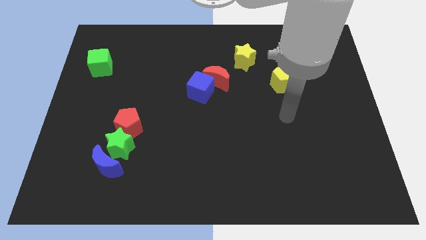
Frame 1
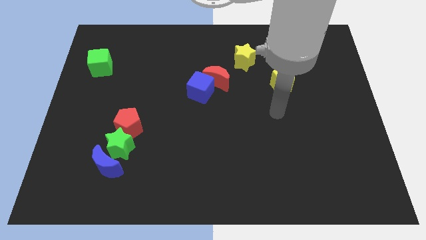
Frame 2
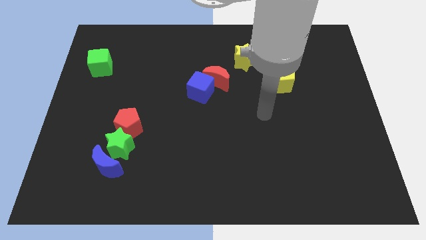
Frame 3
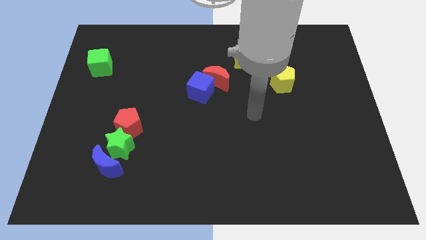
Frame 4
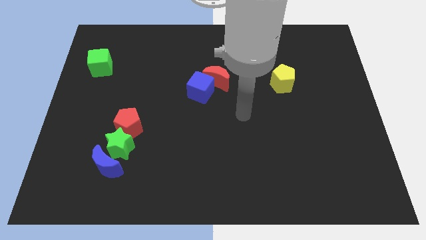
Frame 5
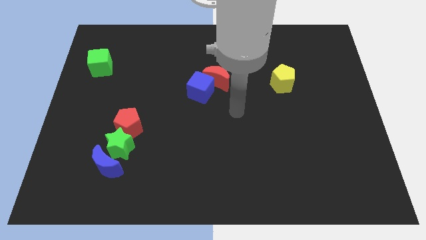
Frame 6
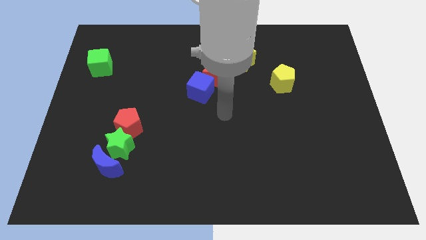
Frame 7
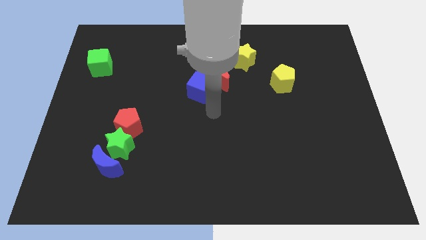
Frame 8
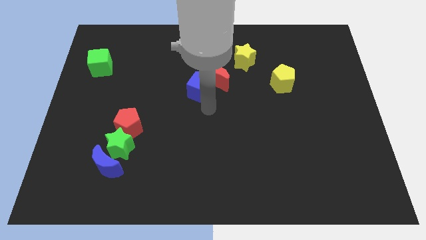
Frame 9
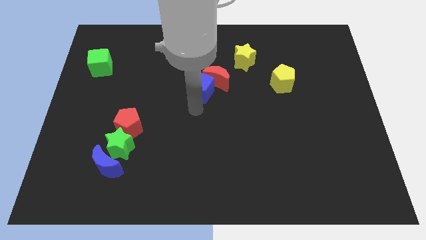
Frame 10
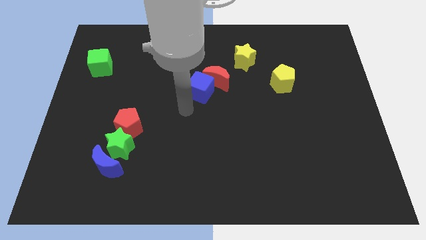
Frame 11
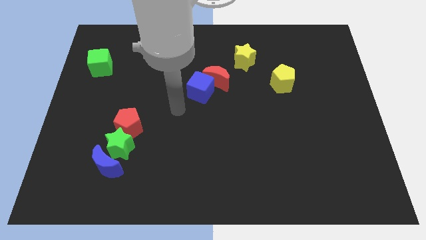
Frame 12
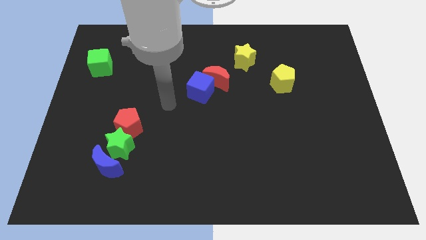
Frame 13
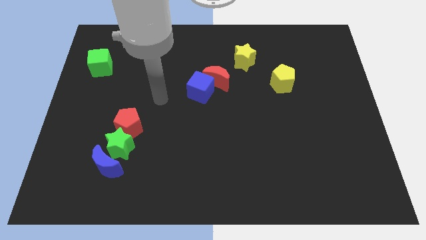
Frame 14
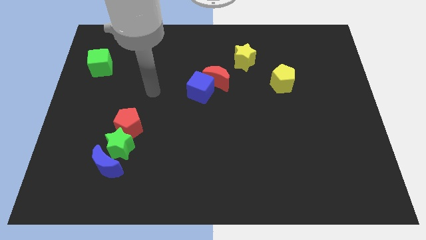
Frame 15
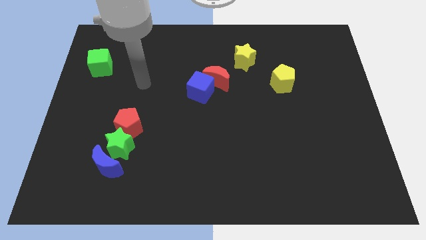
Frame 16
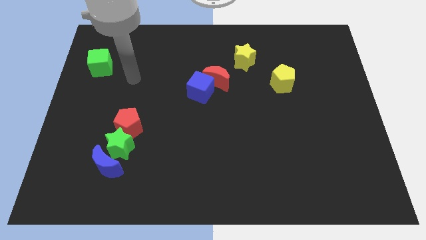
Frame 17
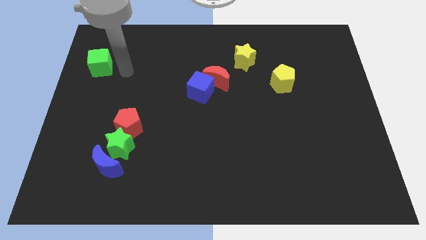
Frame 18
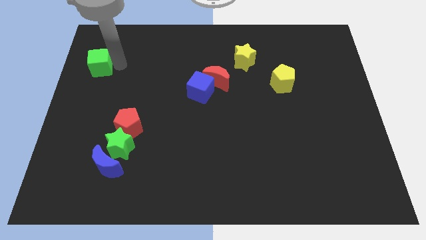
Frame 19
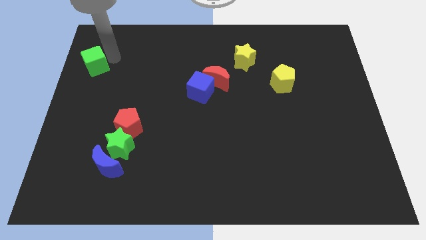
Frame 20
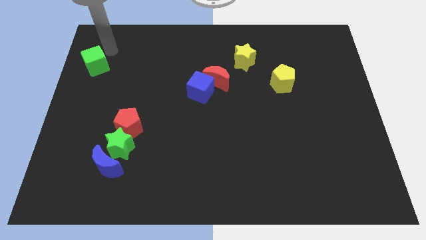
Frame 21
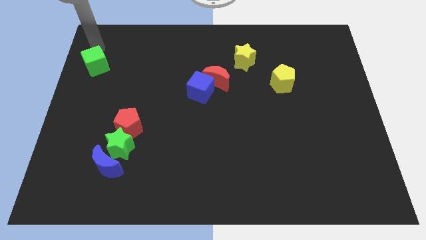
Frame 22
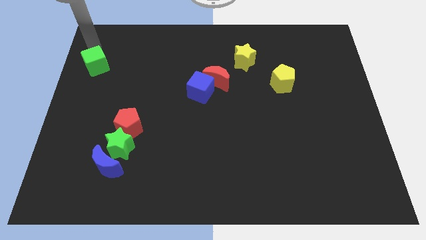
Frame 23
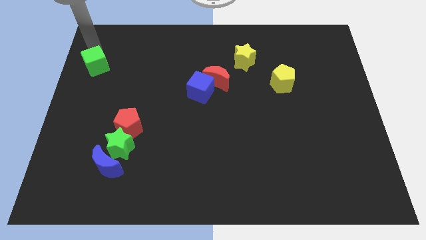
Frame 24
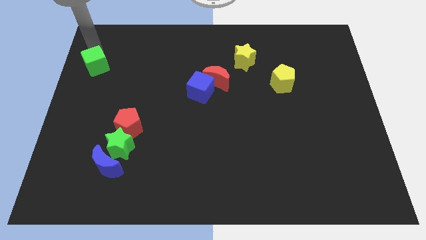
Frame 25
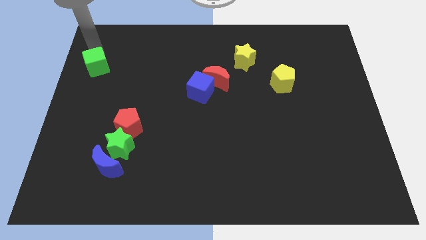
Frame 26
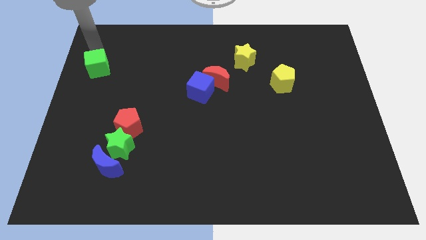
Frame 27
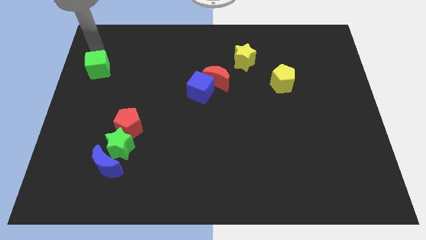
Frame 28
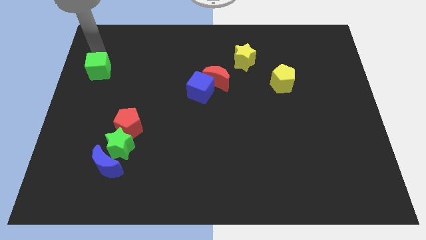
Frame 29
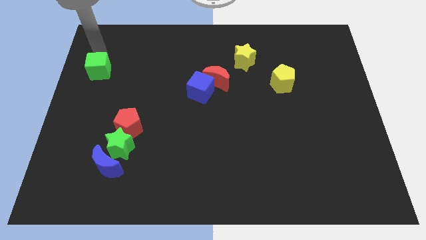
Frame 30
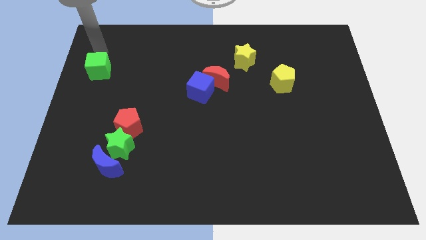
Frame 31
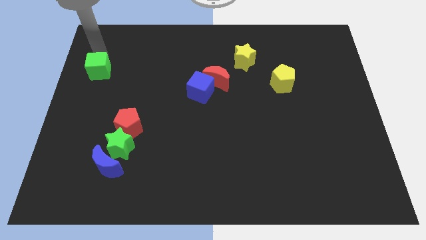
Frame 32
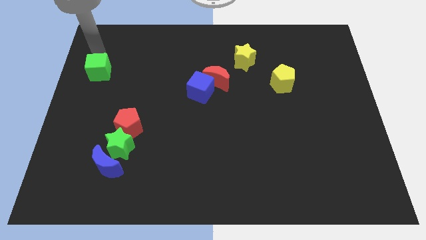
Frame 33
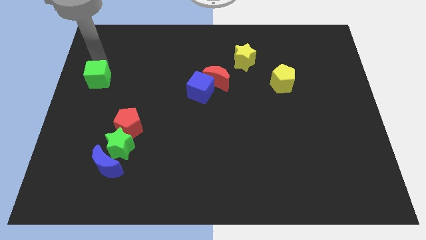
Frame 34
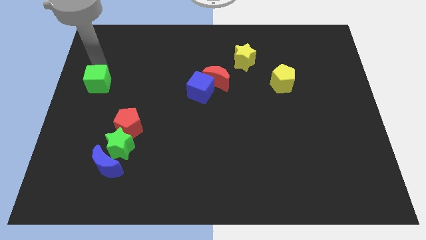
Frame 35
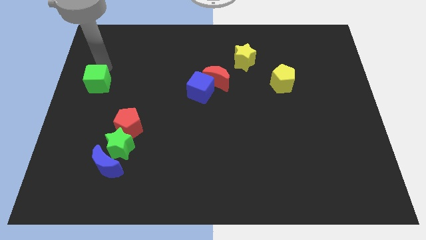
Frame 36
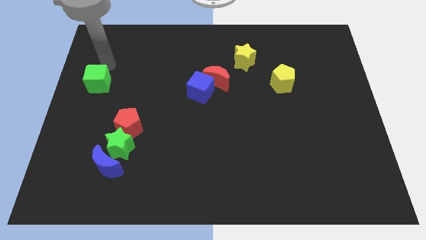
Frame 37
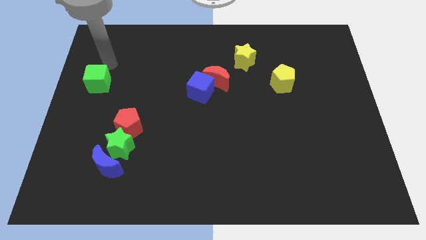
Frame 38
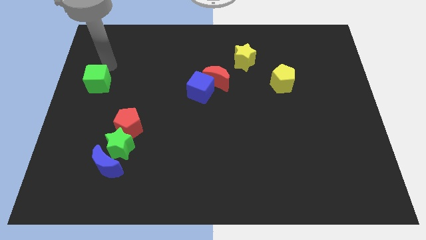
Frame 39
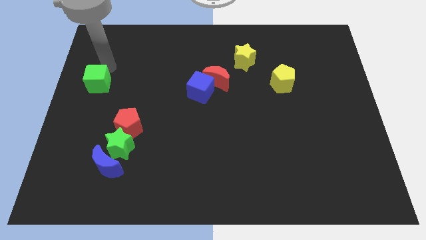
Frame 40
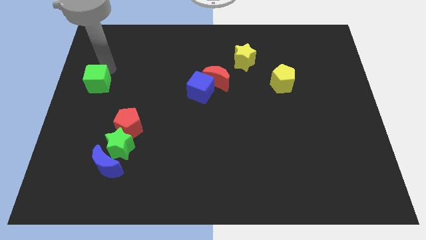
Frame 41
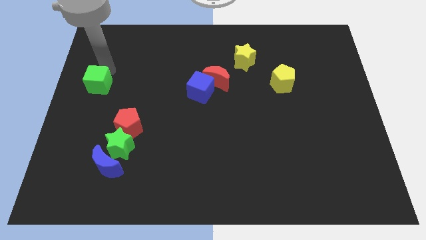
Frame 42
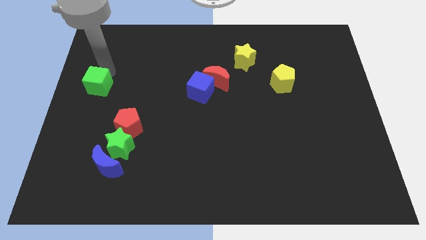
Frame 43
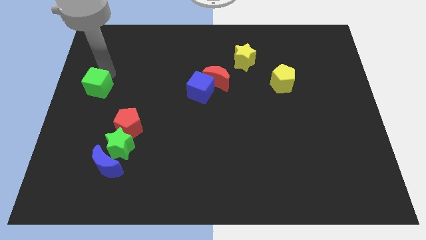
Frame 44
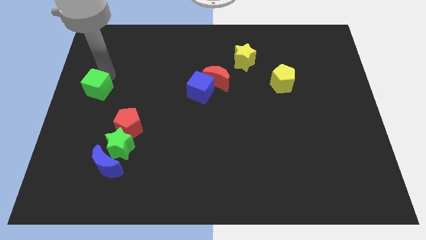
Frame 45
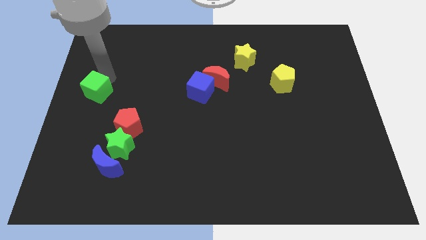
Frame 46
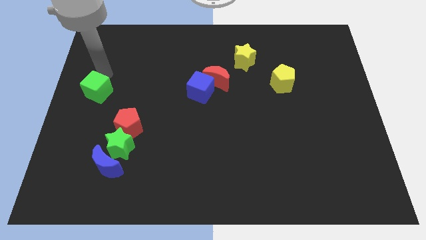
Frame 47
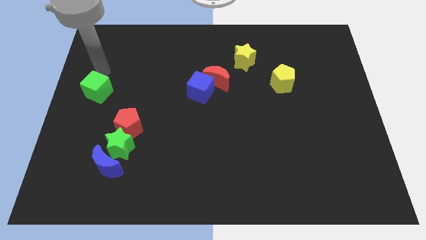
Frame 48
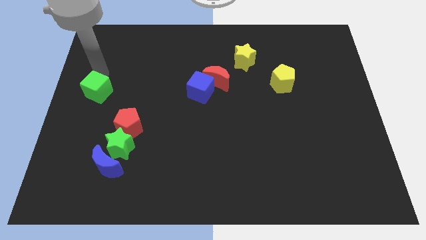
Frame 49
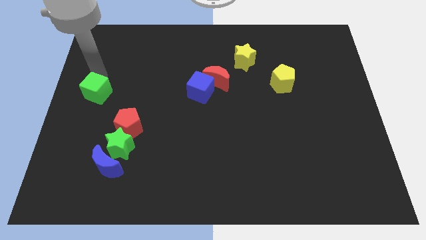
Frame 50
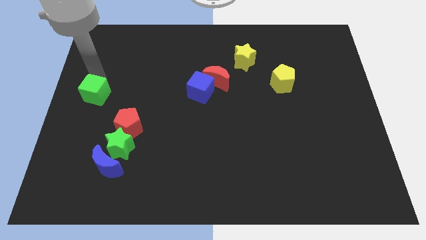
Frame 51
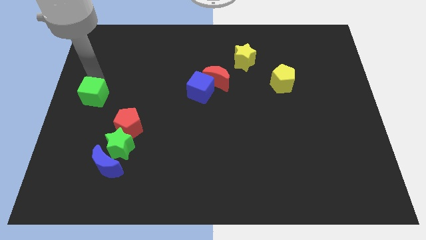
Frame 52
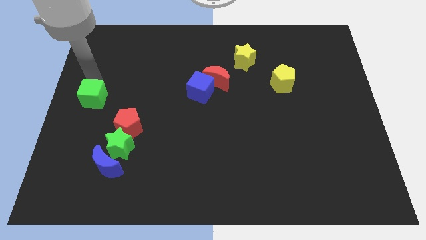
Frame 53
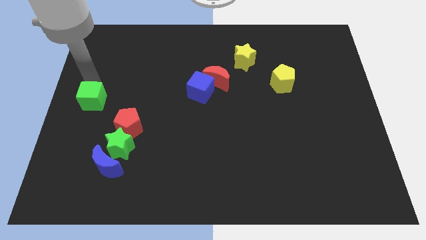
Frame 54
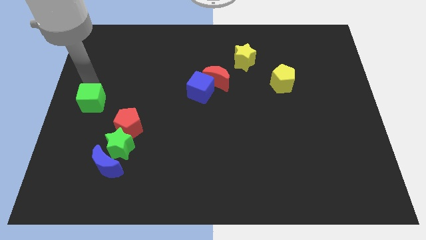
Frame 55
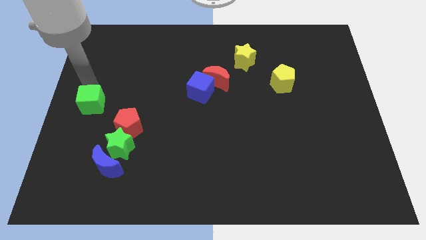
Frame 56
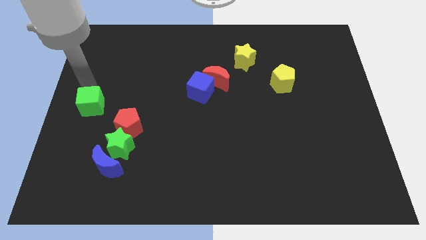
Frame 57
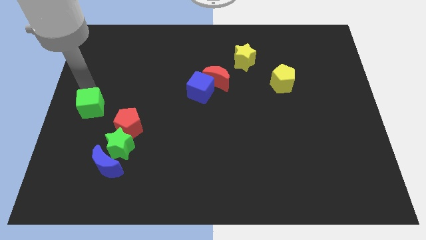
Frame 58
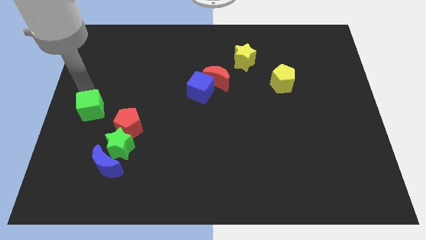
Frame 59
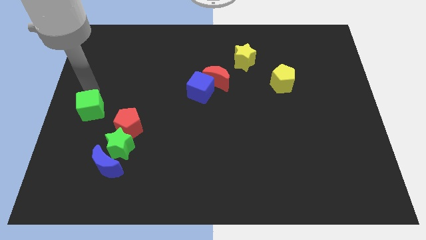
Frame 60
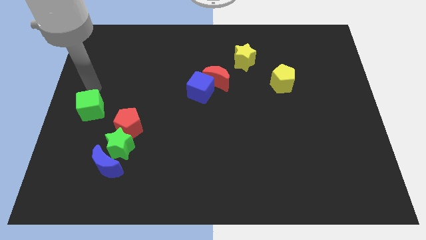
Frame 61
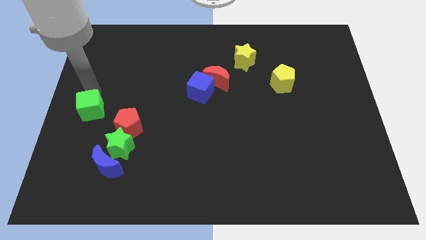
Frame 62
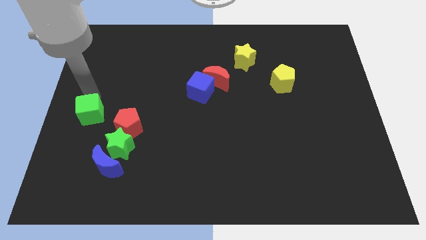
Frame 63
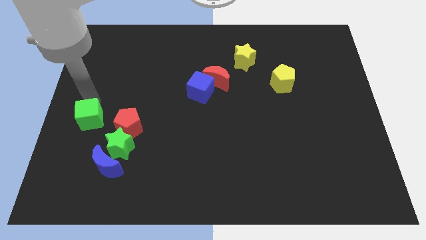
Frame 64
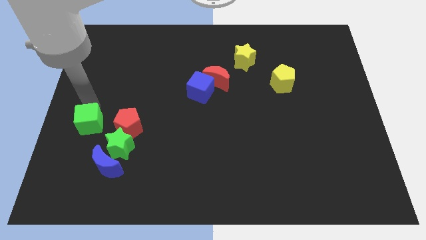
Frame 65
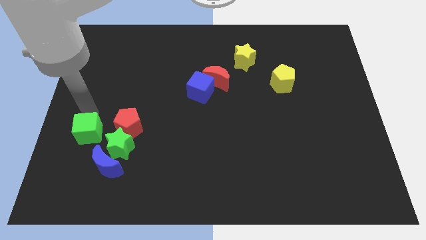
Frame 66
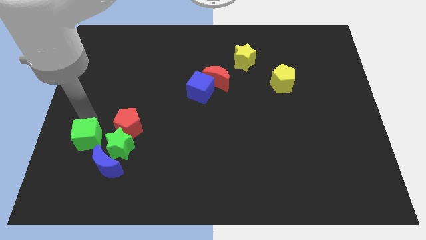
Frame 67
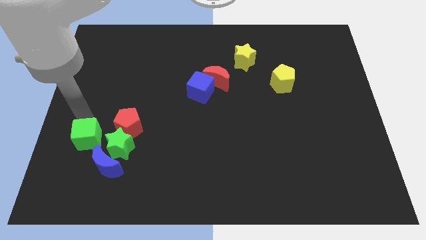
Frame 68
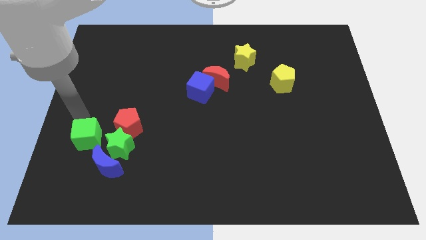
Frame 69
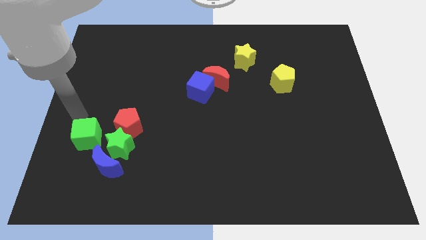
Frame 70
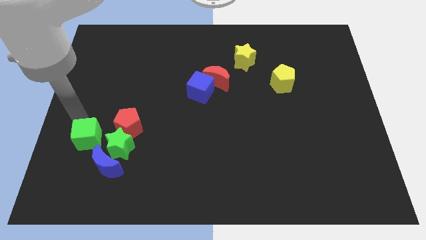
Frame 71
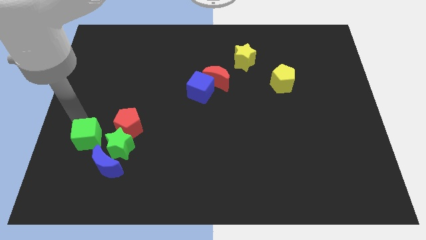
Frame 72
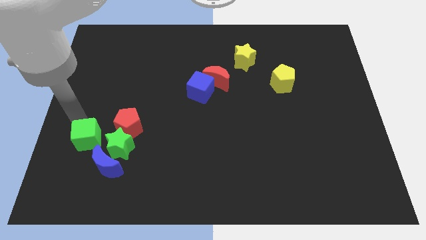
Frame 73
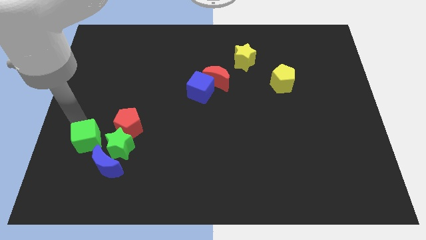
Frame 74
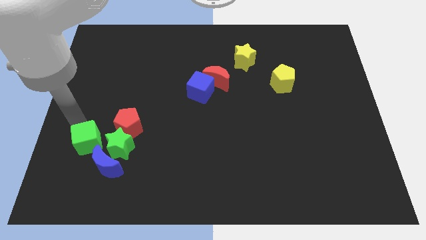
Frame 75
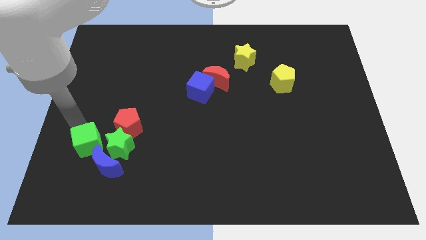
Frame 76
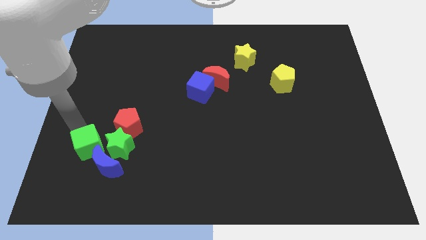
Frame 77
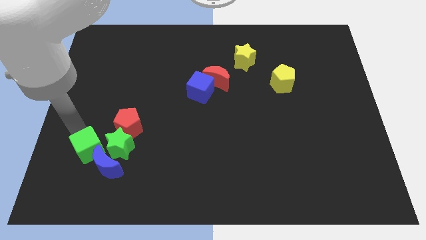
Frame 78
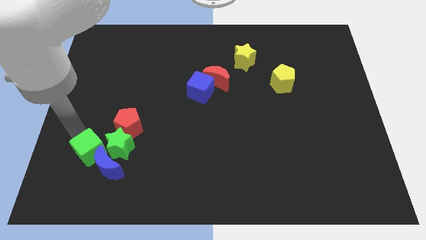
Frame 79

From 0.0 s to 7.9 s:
slide the green cube to the blue moon
